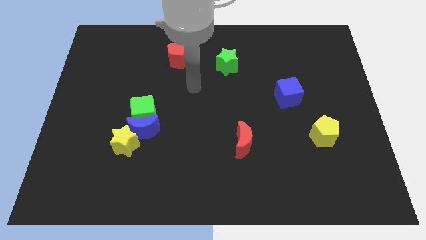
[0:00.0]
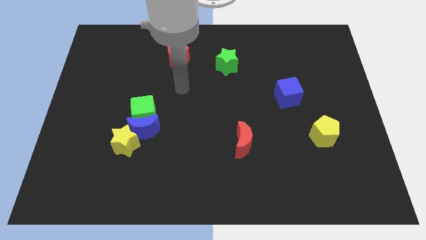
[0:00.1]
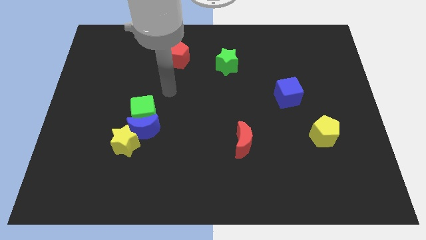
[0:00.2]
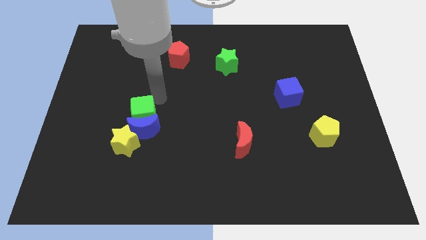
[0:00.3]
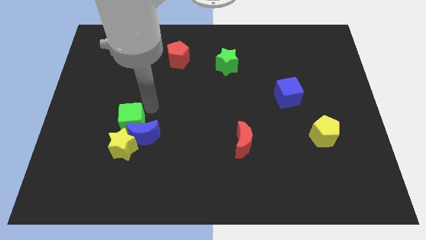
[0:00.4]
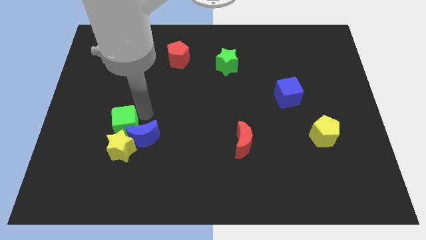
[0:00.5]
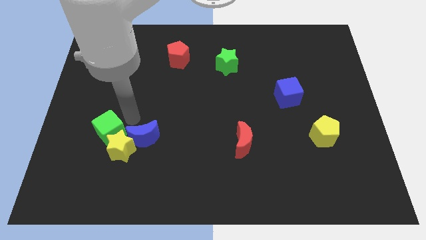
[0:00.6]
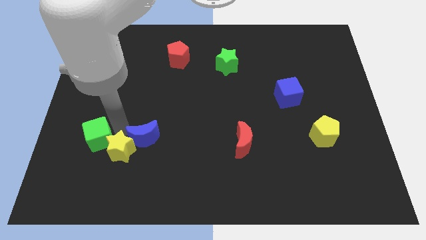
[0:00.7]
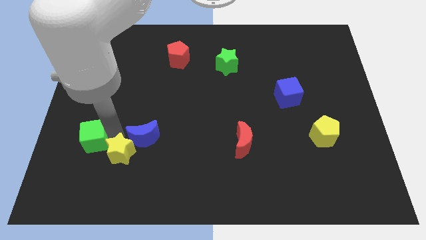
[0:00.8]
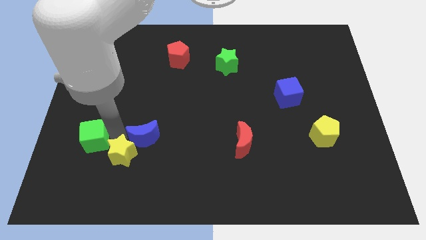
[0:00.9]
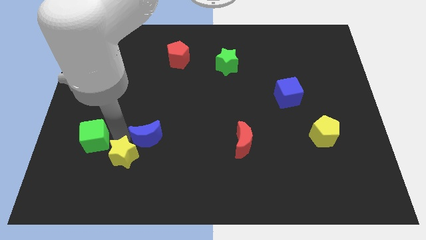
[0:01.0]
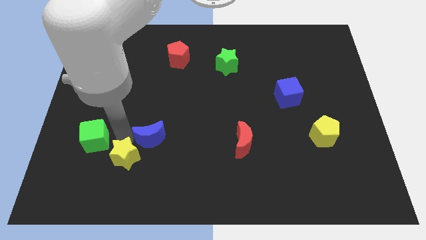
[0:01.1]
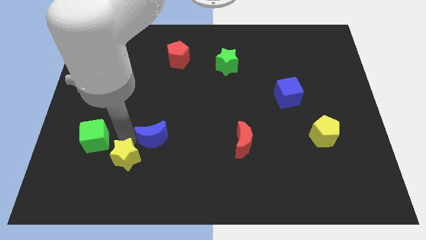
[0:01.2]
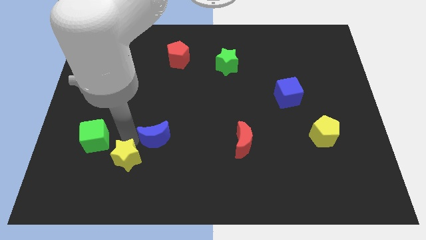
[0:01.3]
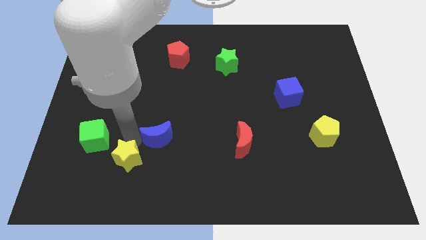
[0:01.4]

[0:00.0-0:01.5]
separate the blue moon from the green cube and yellow star

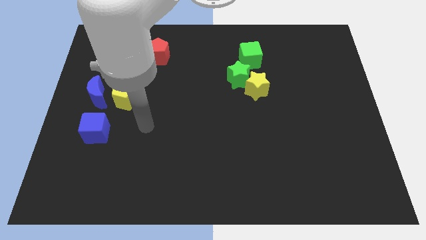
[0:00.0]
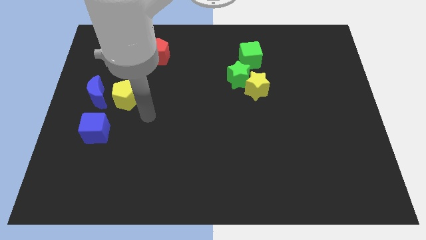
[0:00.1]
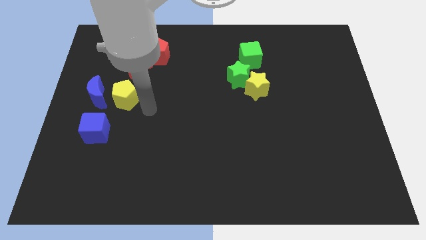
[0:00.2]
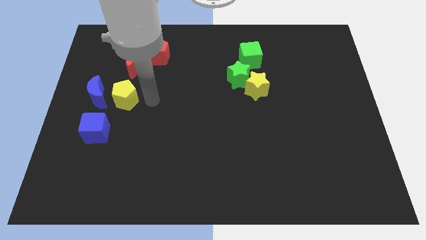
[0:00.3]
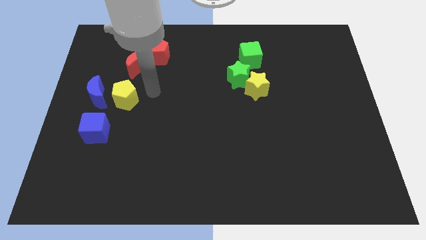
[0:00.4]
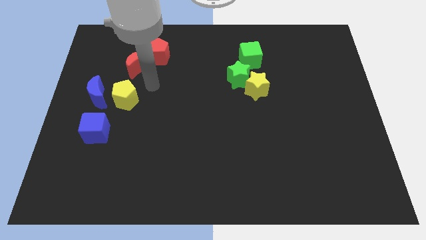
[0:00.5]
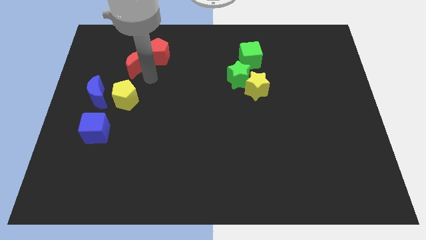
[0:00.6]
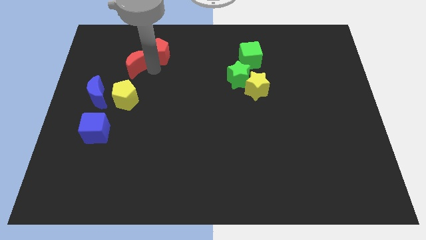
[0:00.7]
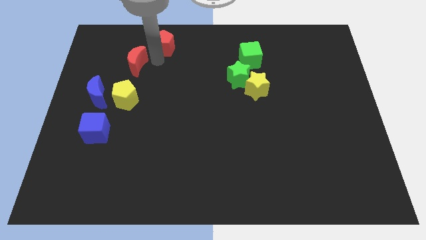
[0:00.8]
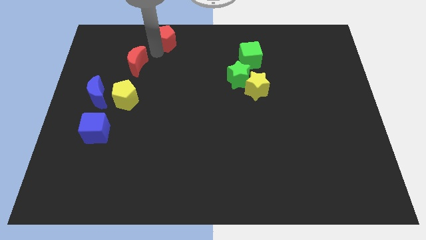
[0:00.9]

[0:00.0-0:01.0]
pull the red moon apart from the red pentagon

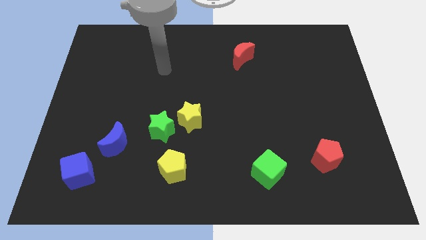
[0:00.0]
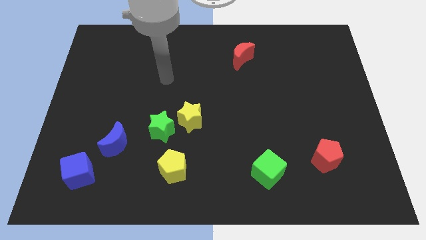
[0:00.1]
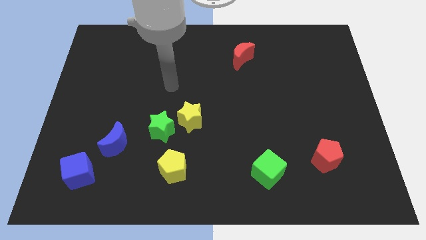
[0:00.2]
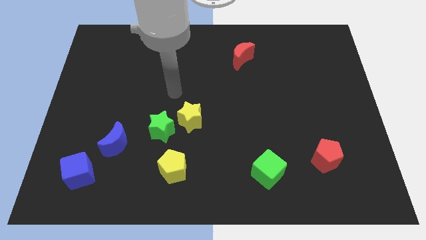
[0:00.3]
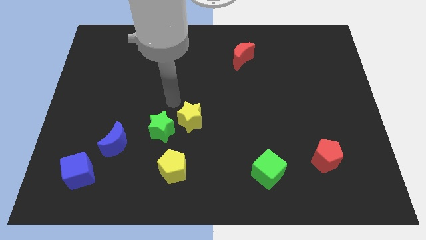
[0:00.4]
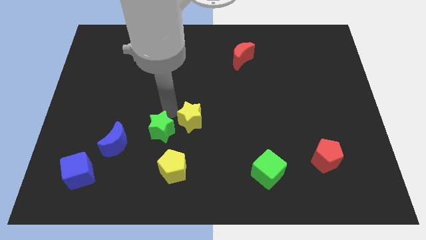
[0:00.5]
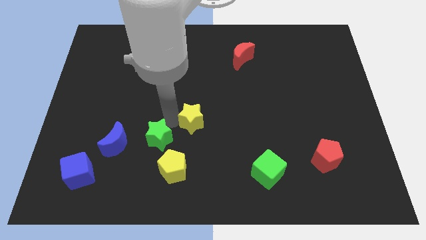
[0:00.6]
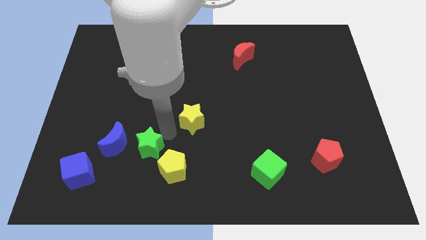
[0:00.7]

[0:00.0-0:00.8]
move the yellow star away from the green star

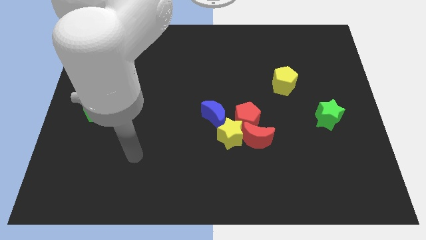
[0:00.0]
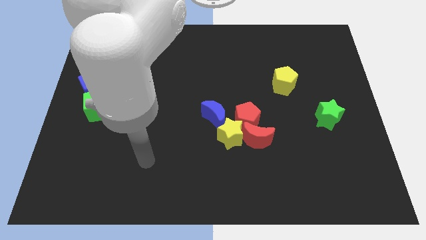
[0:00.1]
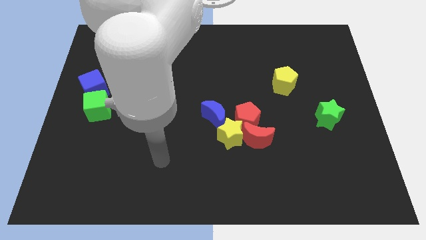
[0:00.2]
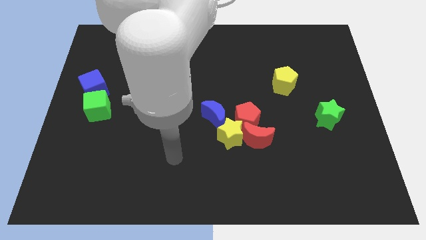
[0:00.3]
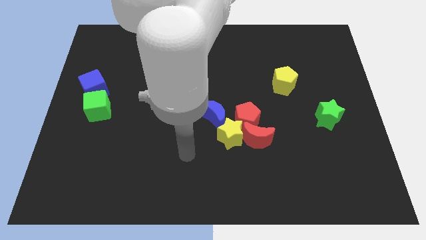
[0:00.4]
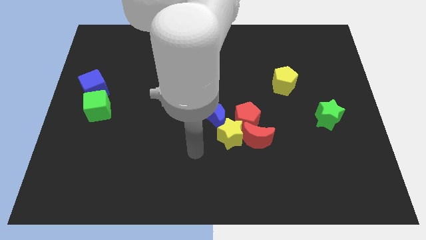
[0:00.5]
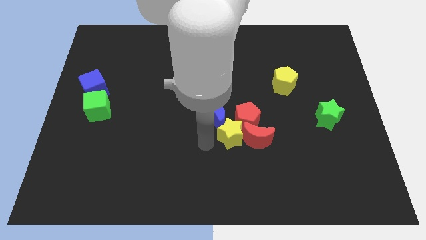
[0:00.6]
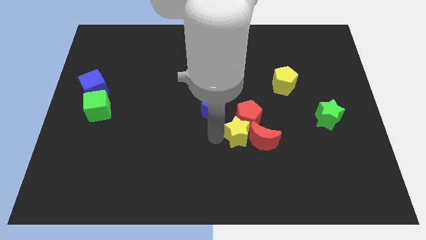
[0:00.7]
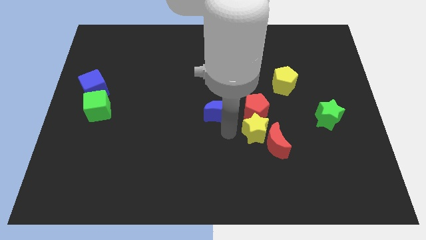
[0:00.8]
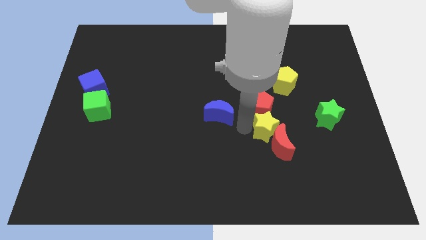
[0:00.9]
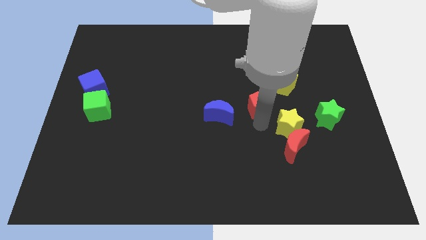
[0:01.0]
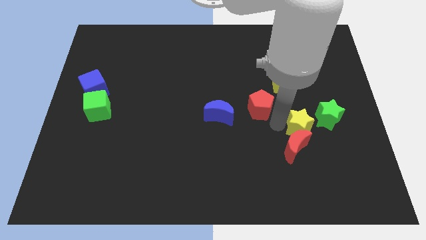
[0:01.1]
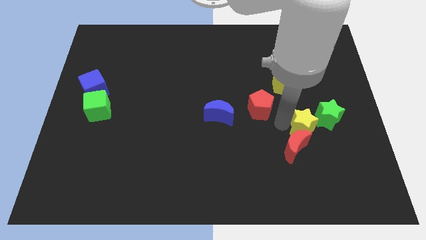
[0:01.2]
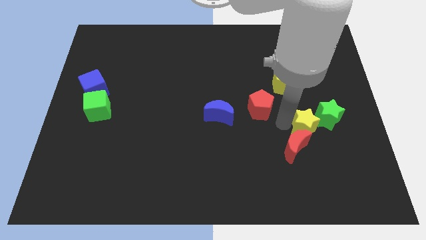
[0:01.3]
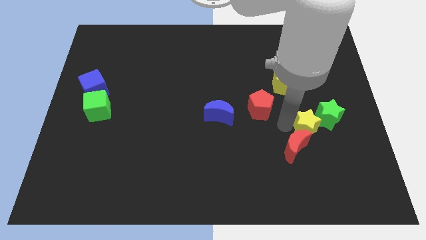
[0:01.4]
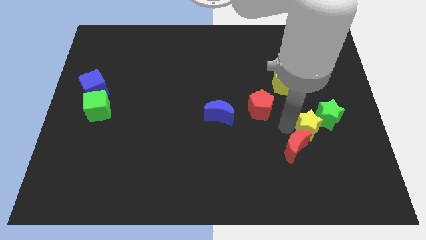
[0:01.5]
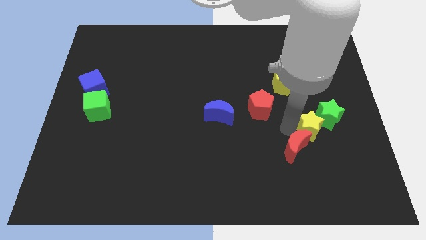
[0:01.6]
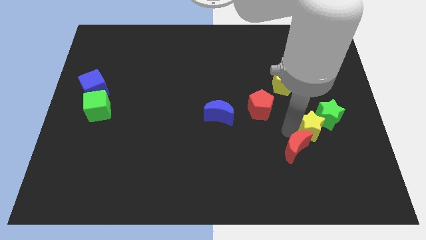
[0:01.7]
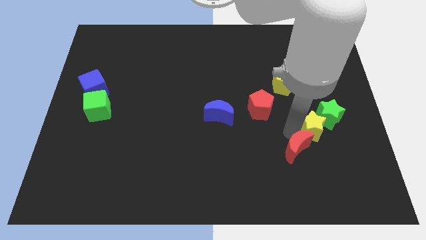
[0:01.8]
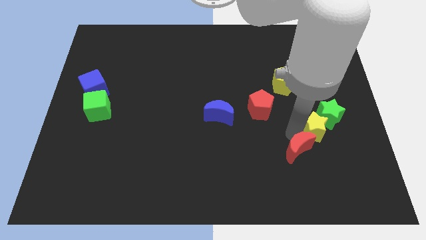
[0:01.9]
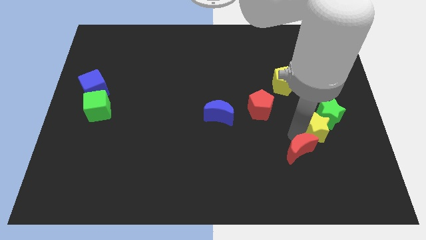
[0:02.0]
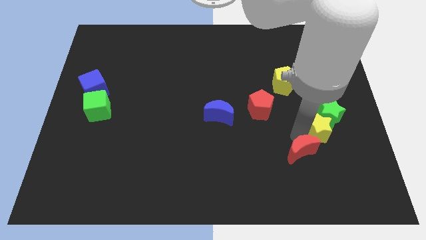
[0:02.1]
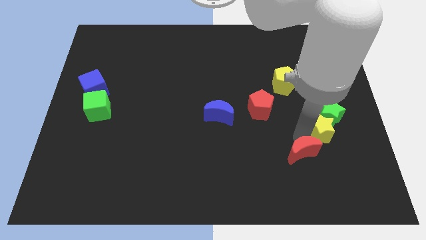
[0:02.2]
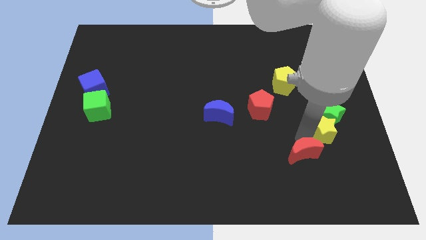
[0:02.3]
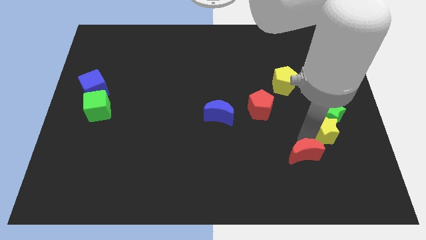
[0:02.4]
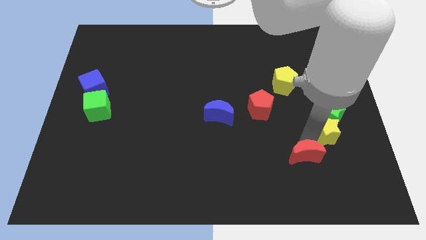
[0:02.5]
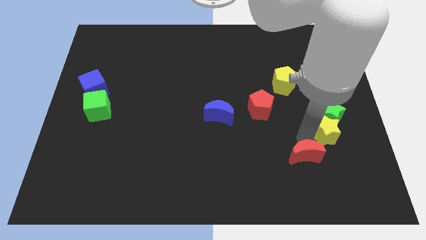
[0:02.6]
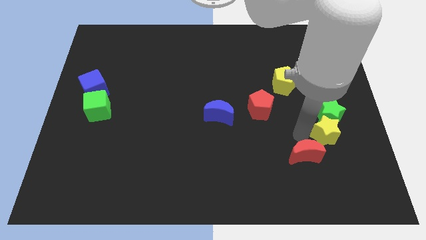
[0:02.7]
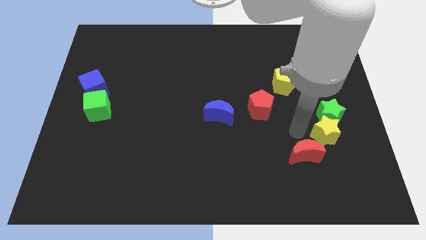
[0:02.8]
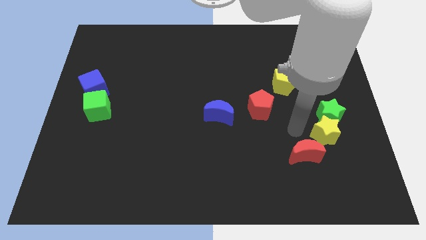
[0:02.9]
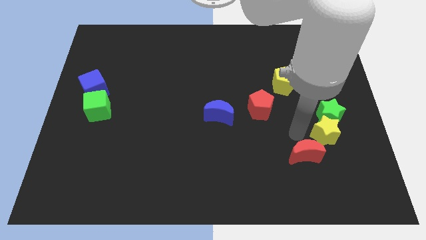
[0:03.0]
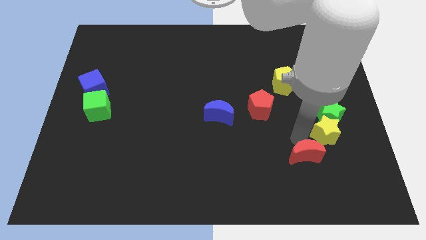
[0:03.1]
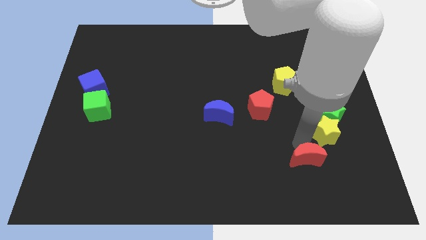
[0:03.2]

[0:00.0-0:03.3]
separate the red moon from the red pentagon and yellow star

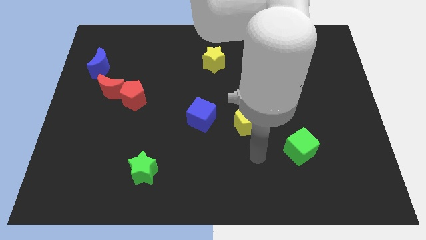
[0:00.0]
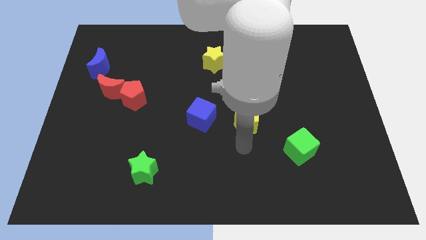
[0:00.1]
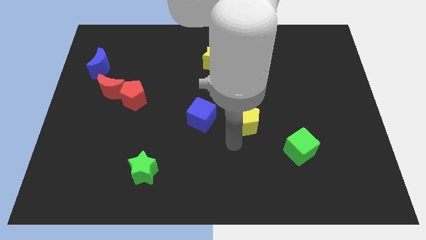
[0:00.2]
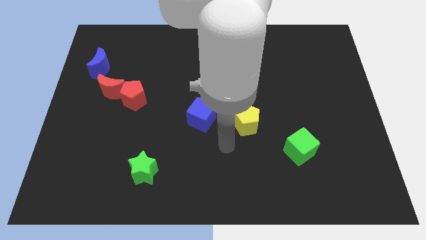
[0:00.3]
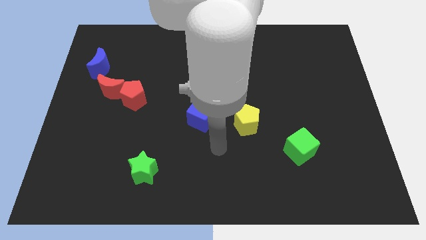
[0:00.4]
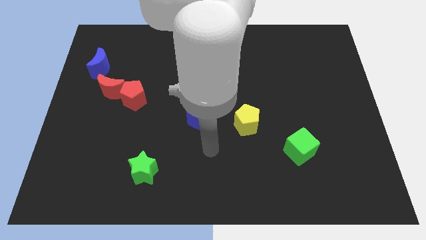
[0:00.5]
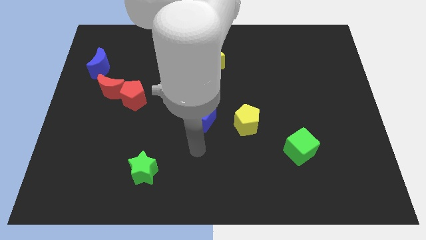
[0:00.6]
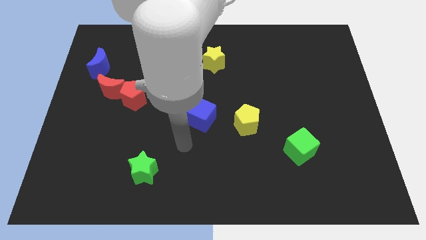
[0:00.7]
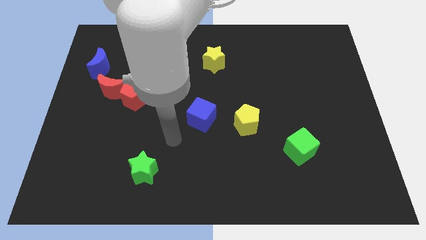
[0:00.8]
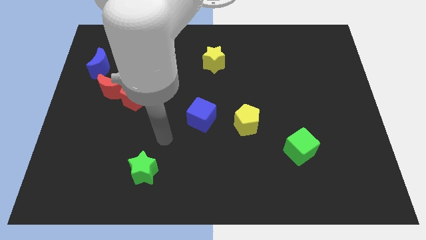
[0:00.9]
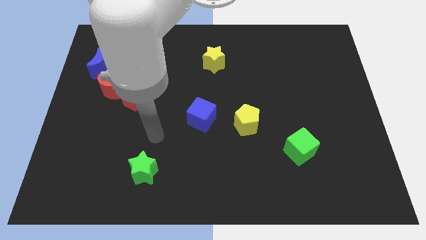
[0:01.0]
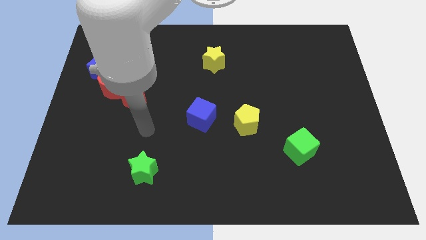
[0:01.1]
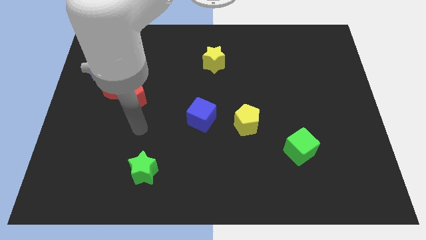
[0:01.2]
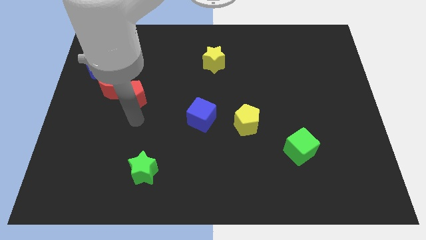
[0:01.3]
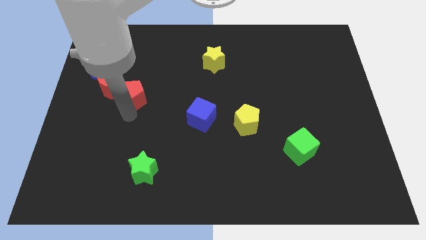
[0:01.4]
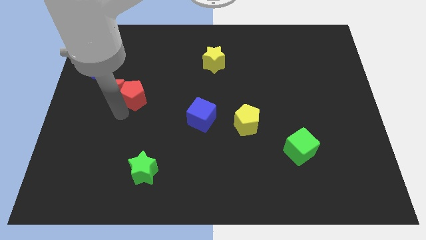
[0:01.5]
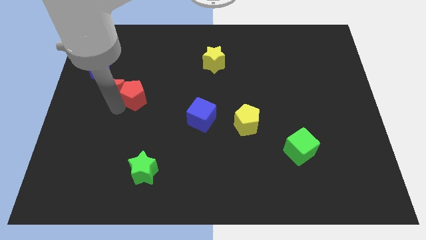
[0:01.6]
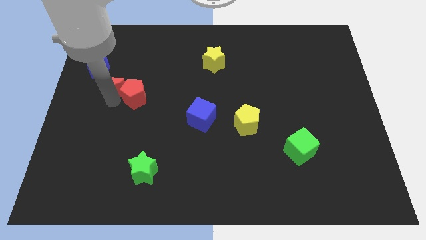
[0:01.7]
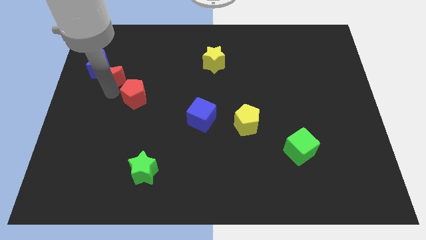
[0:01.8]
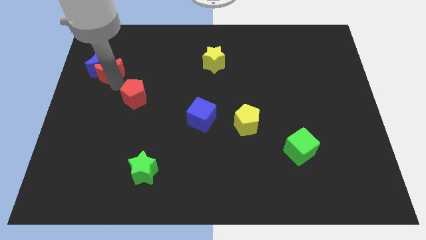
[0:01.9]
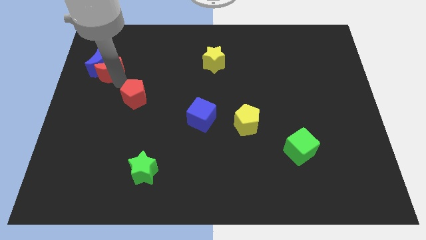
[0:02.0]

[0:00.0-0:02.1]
move the red pentagon away from the red moon

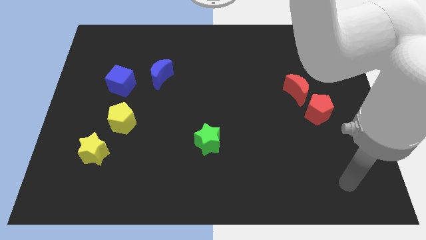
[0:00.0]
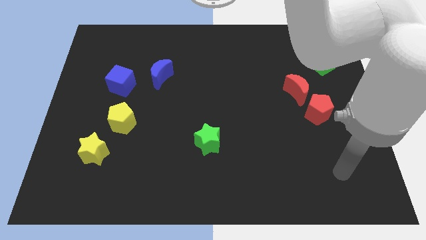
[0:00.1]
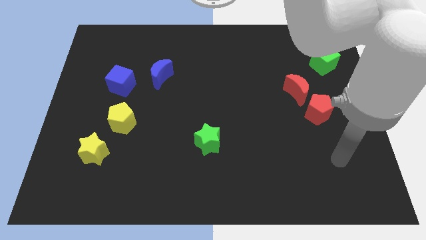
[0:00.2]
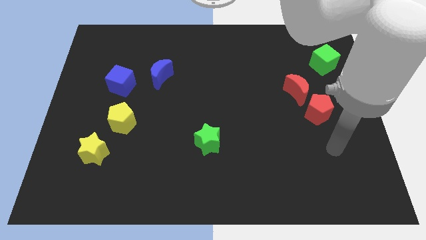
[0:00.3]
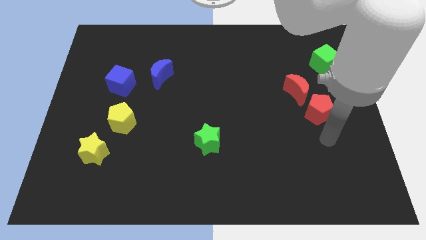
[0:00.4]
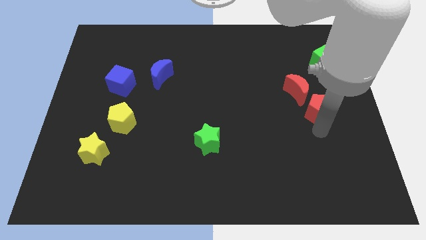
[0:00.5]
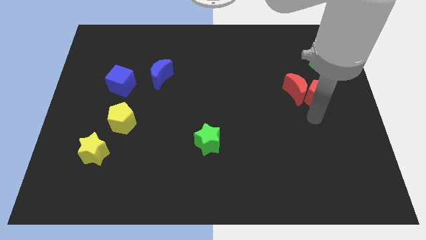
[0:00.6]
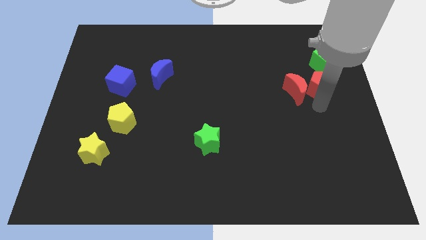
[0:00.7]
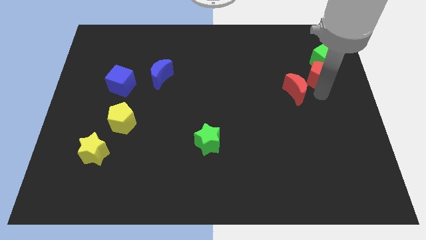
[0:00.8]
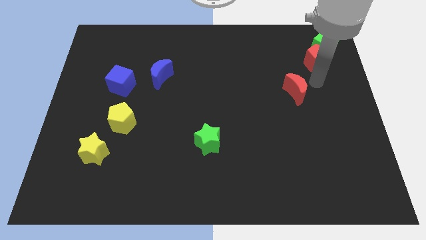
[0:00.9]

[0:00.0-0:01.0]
move the red moon away from the red pentagon
